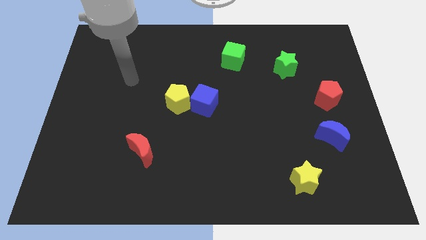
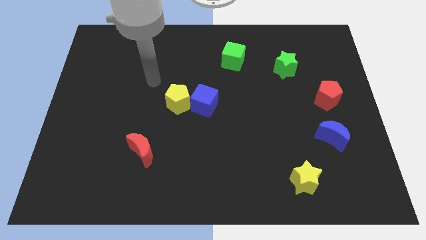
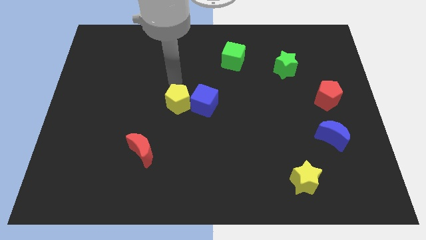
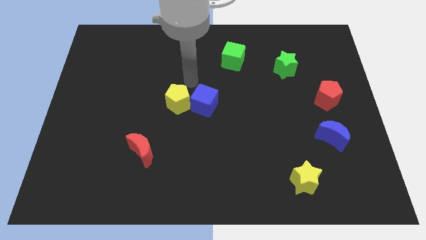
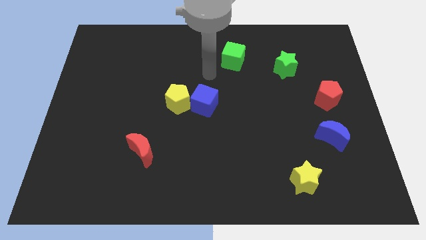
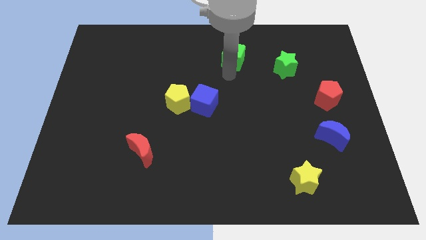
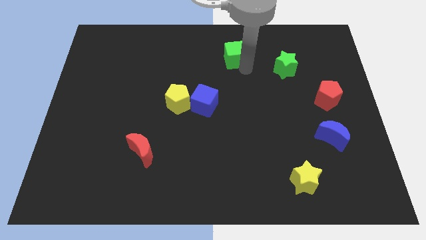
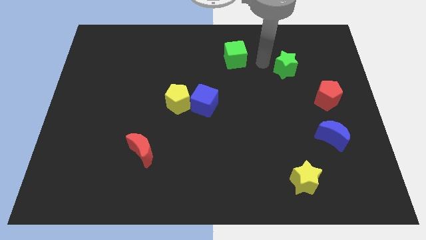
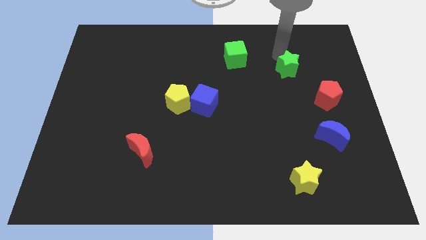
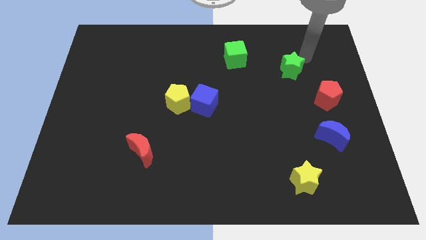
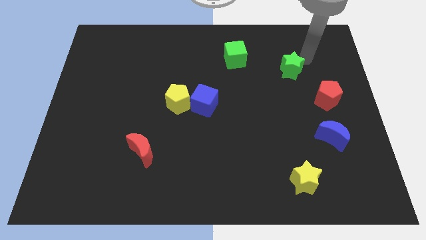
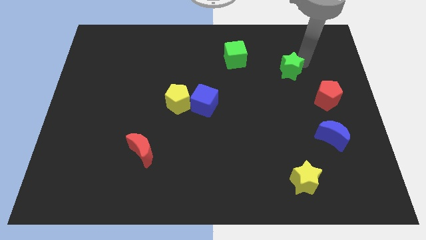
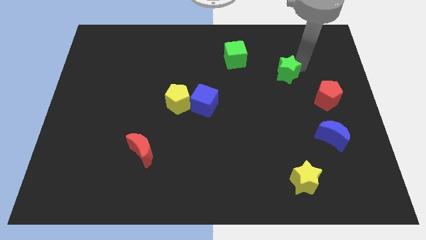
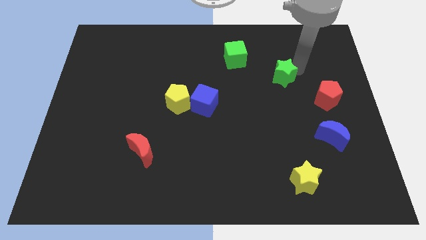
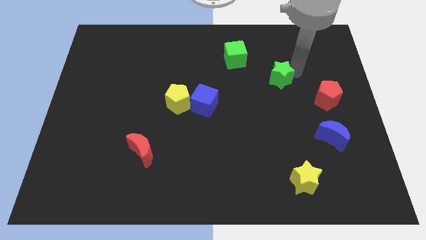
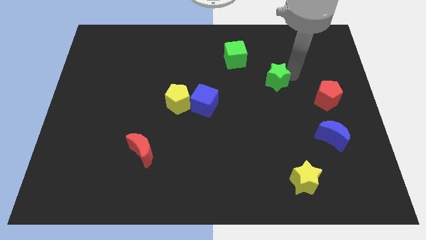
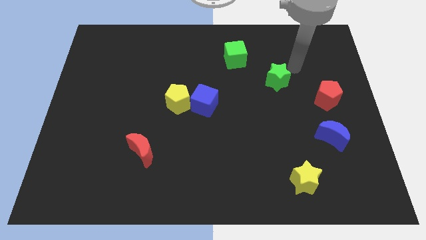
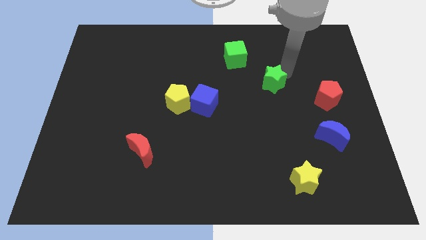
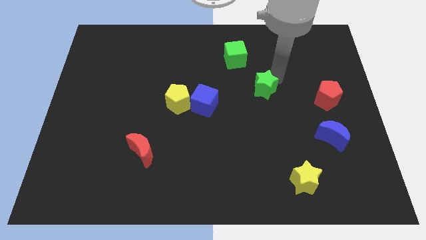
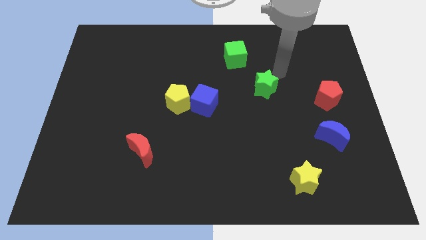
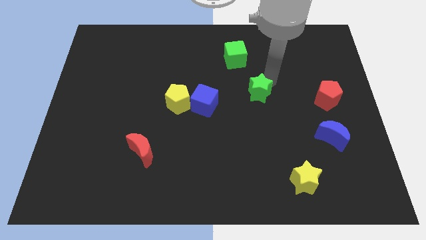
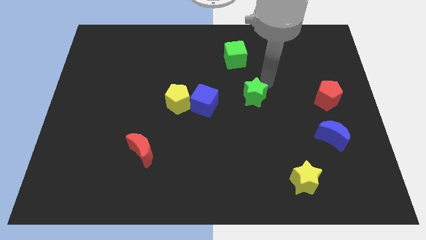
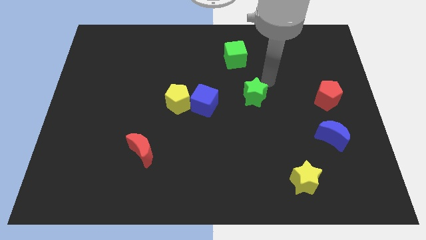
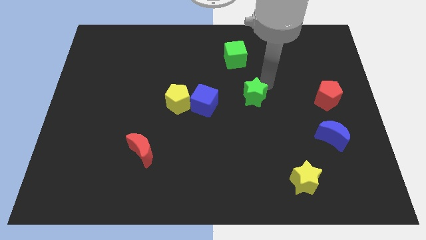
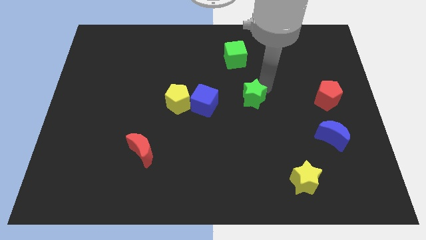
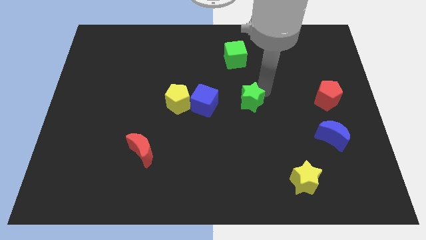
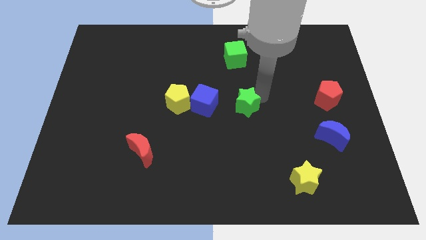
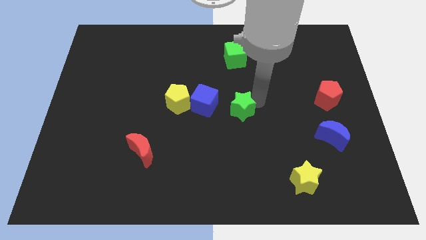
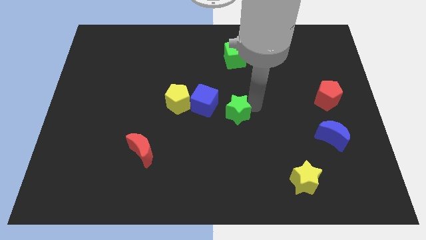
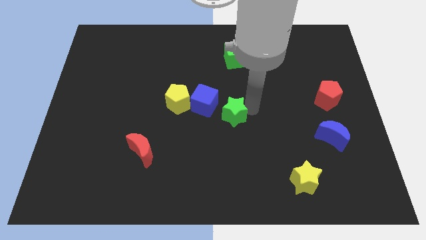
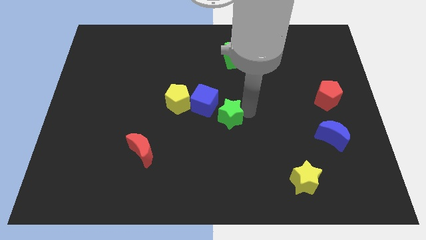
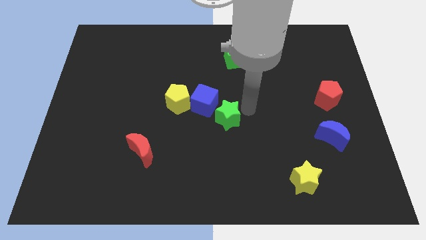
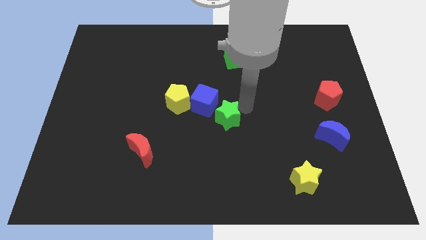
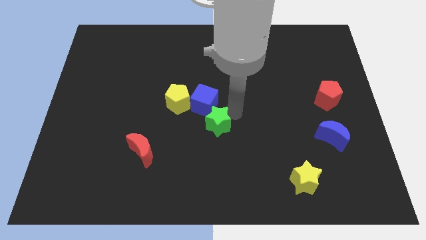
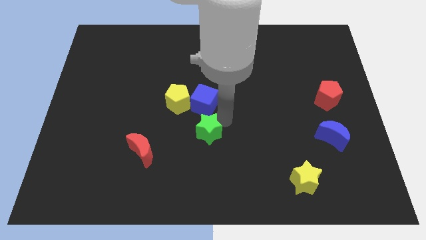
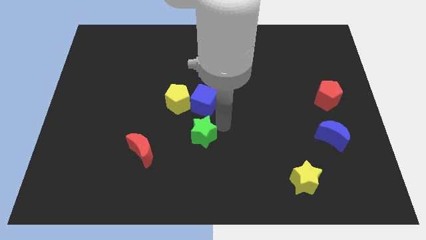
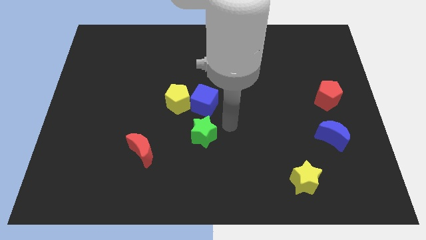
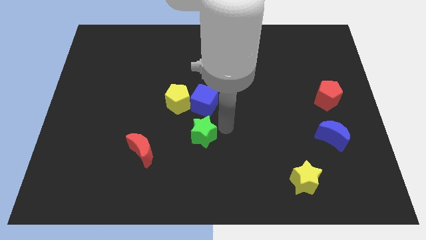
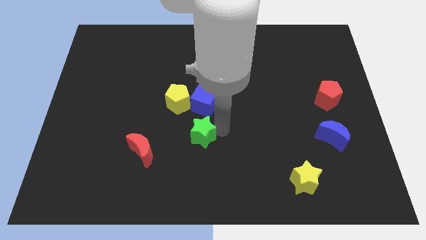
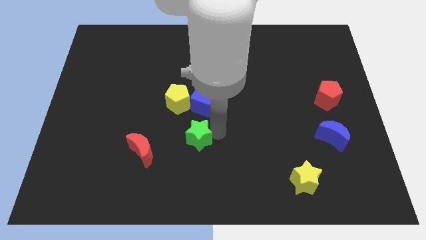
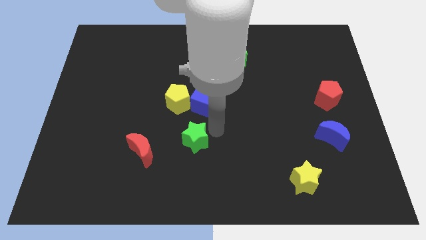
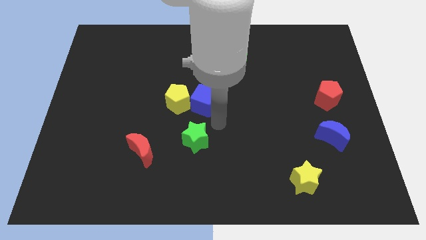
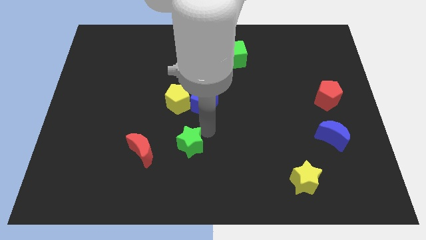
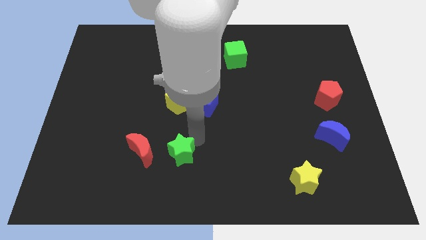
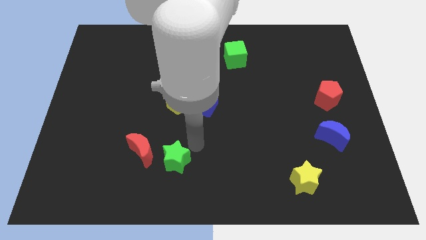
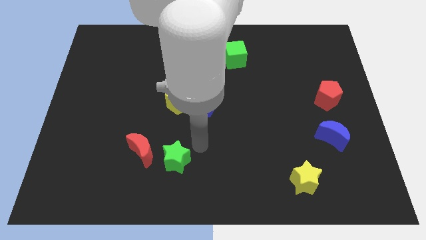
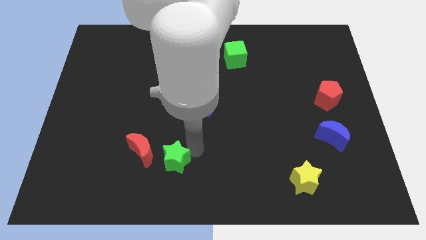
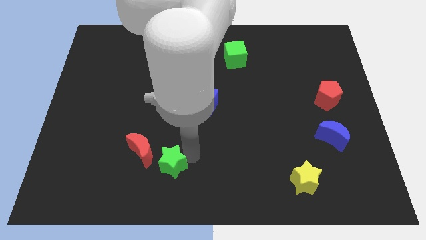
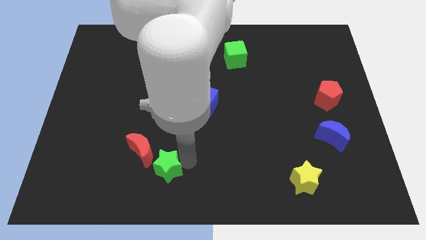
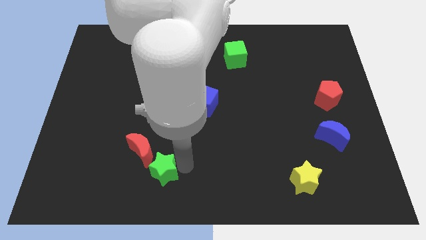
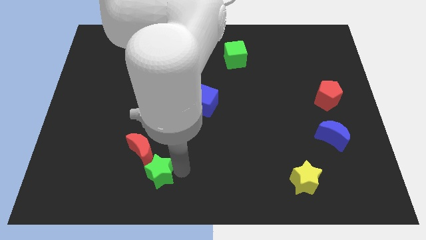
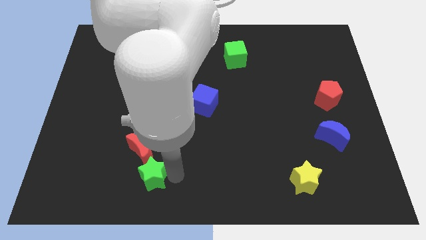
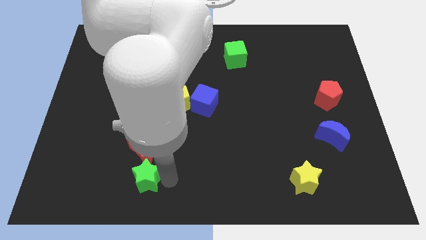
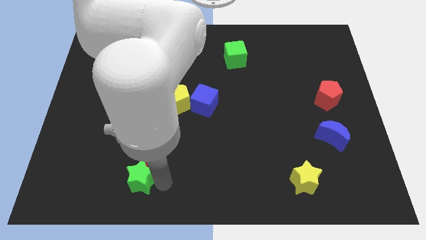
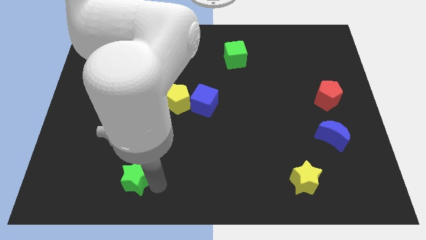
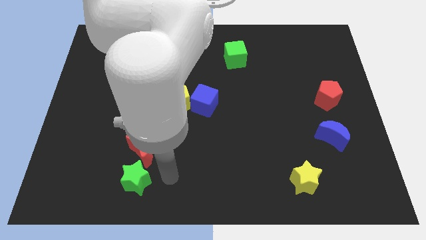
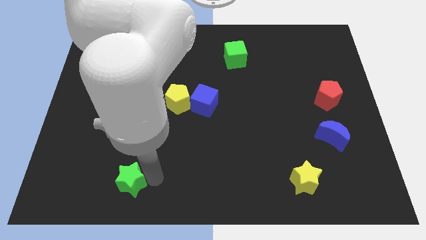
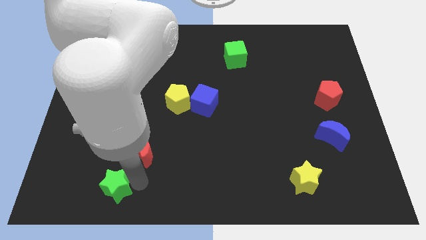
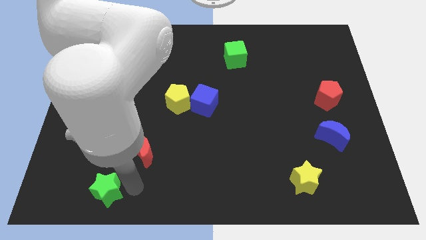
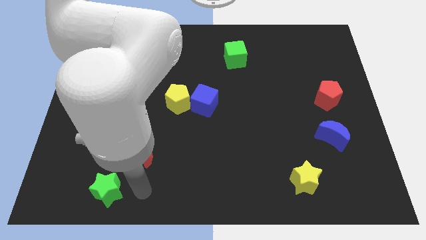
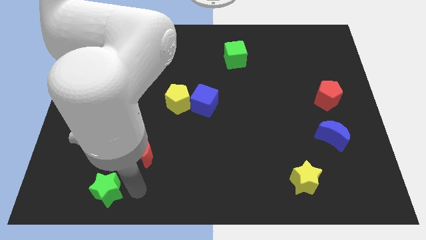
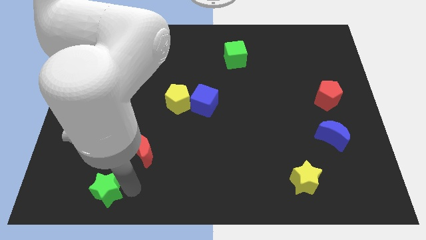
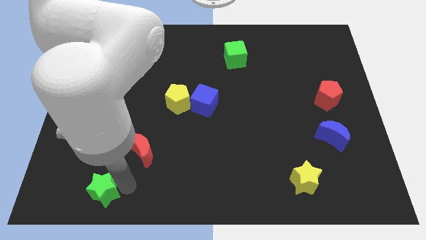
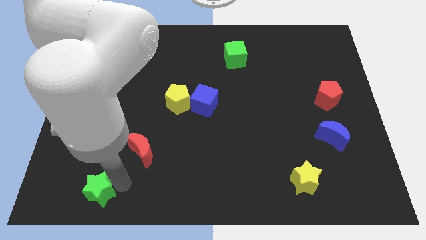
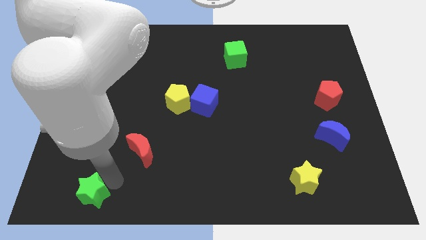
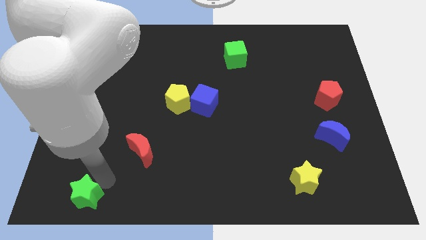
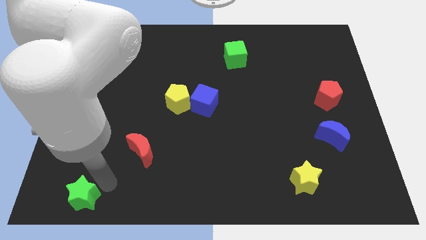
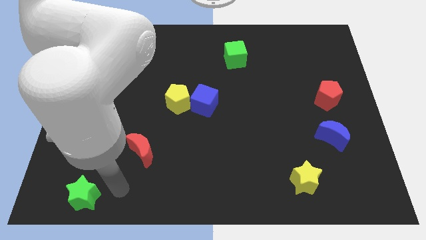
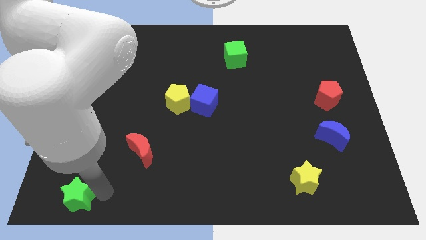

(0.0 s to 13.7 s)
slide the green star to the lower left corner

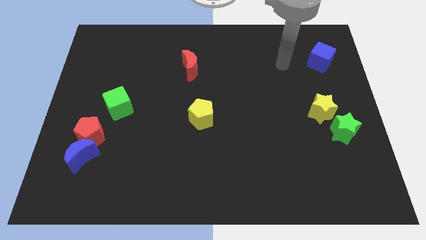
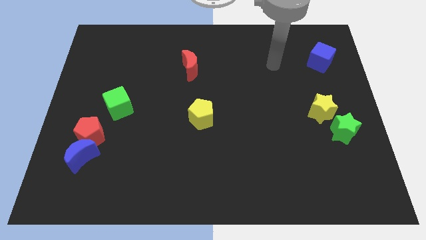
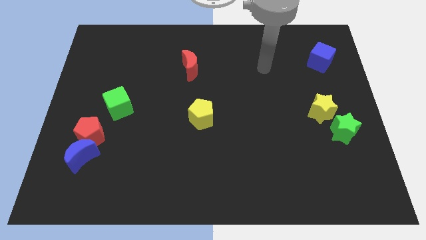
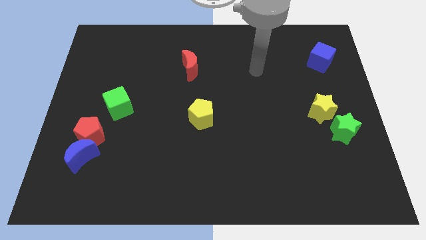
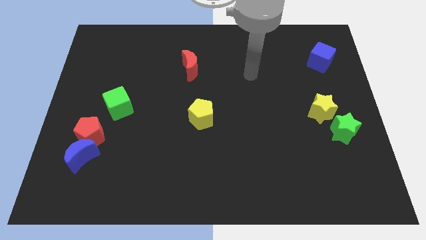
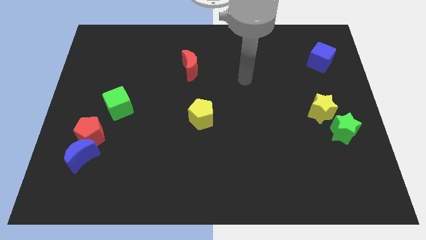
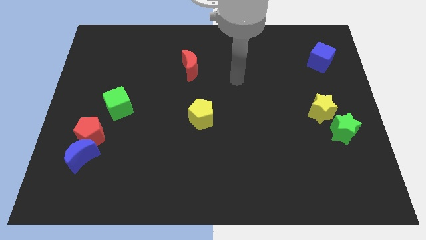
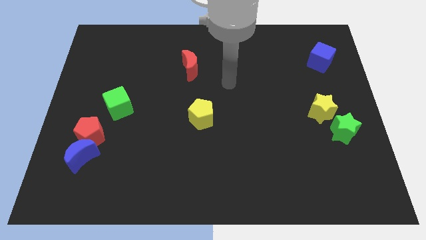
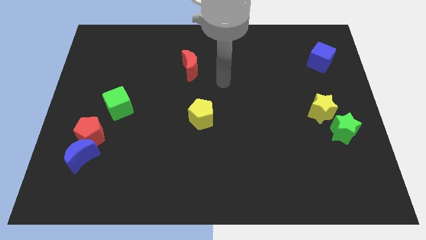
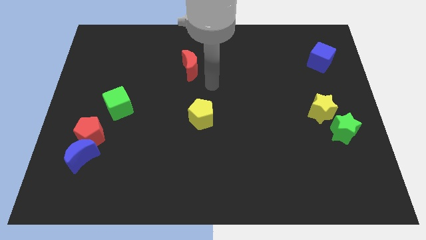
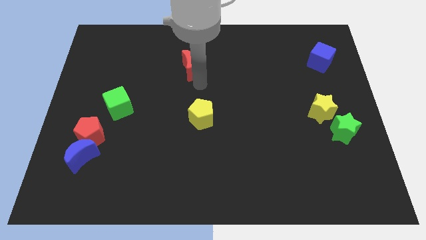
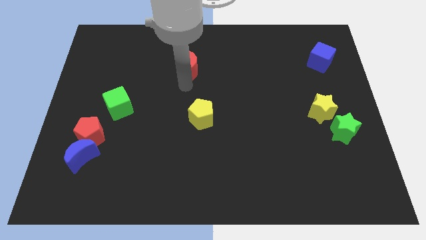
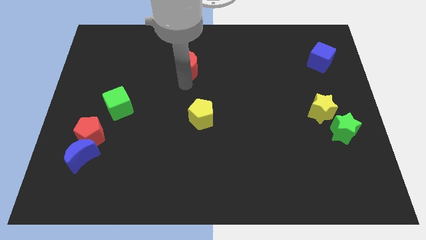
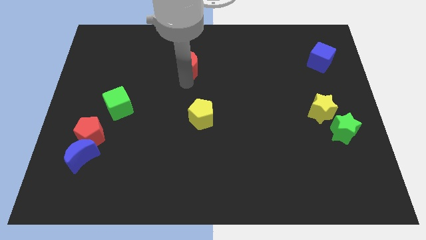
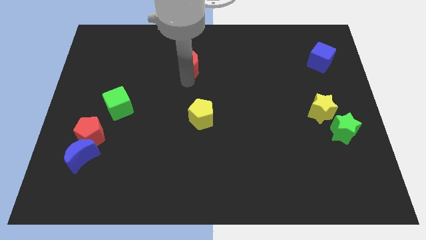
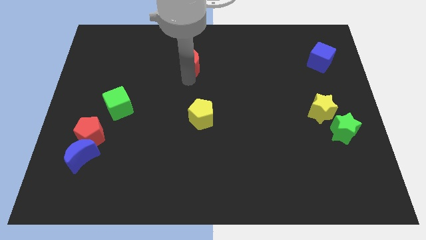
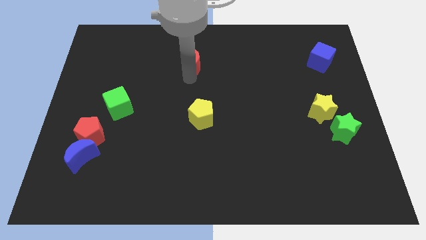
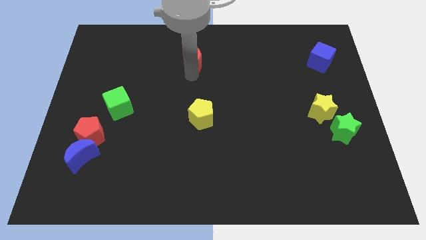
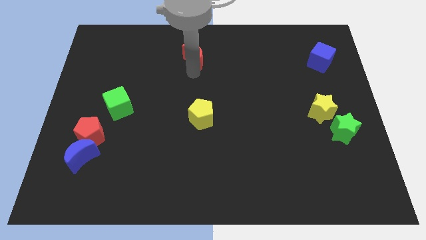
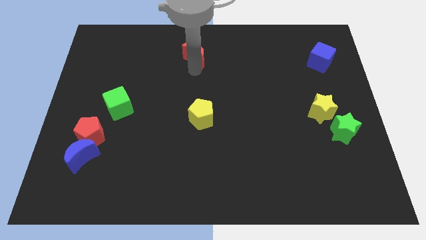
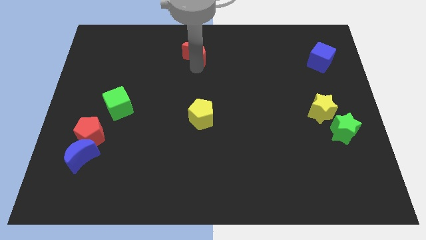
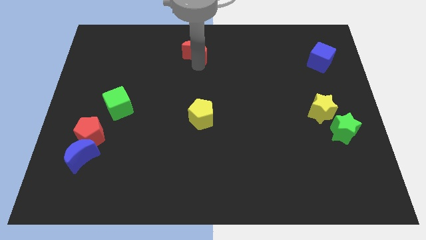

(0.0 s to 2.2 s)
push the red moon to the top
